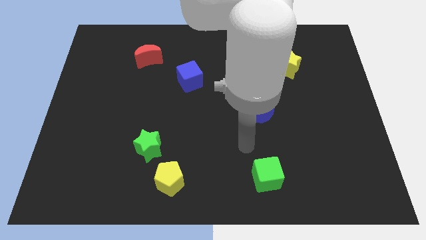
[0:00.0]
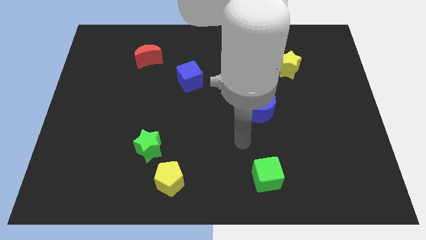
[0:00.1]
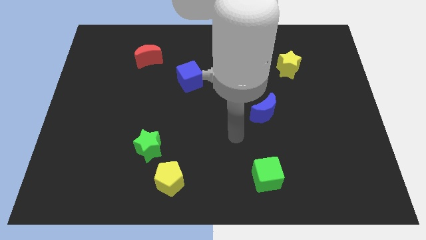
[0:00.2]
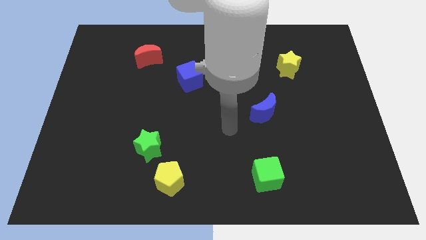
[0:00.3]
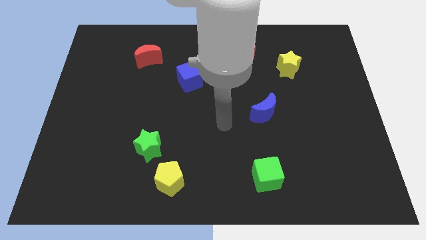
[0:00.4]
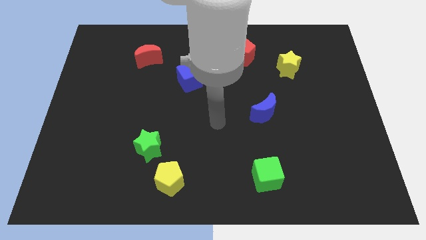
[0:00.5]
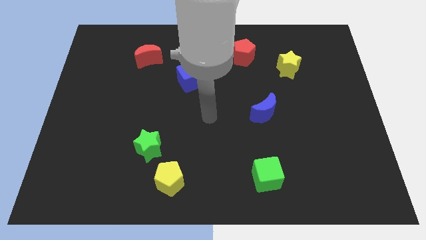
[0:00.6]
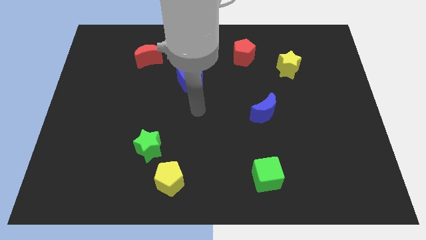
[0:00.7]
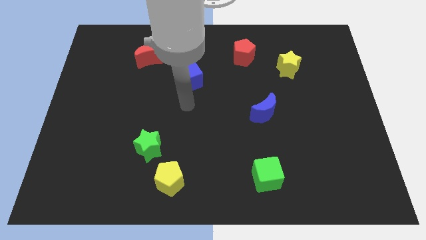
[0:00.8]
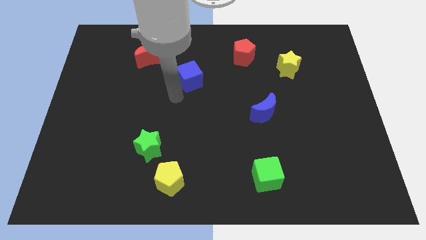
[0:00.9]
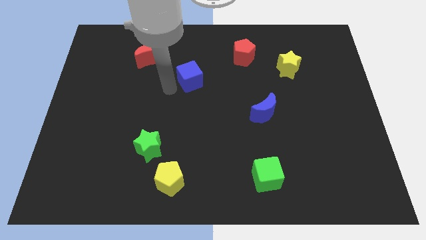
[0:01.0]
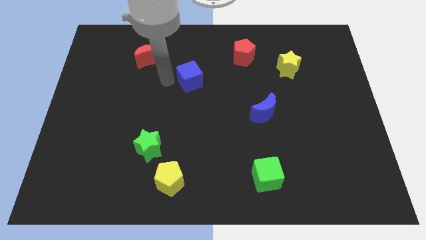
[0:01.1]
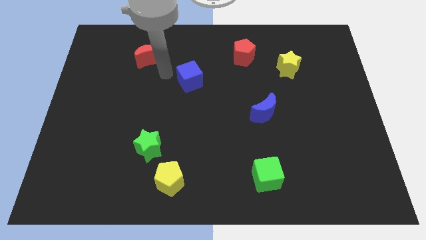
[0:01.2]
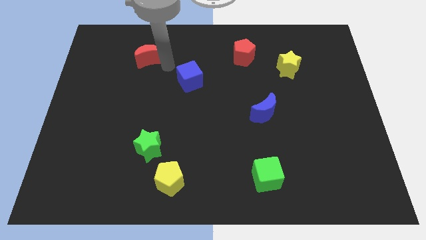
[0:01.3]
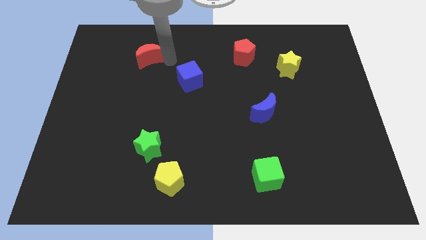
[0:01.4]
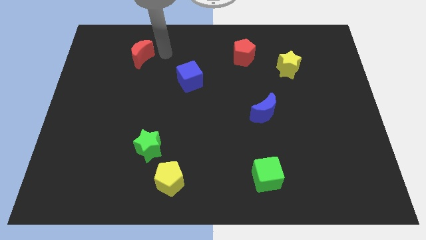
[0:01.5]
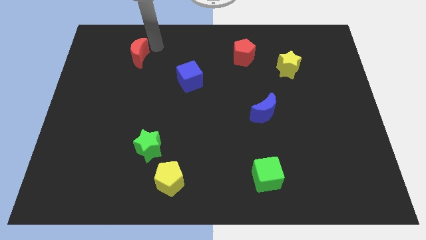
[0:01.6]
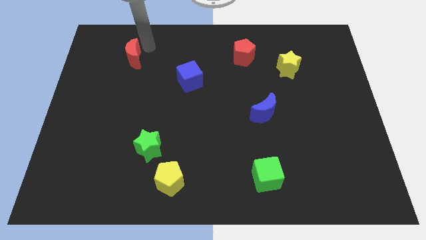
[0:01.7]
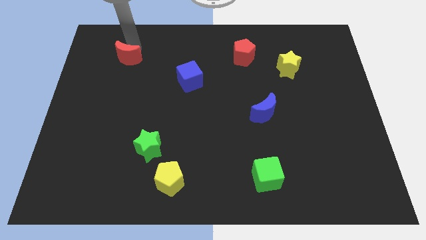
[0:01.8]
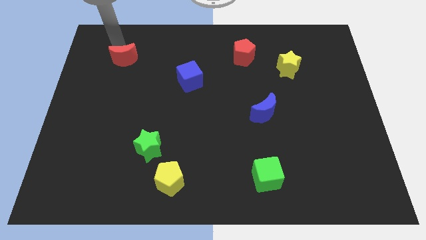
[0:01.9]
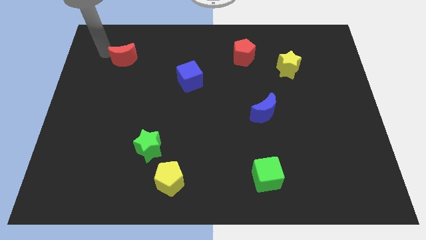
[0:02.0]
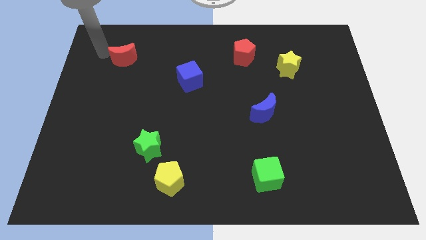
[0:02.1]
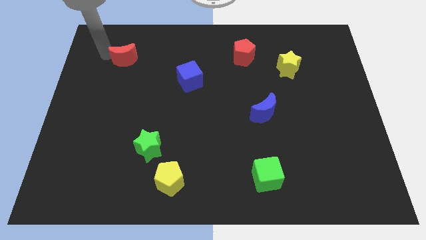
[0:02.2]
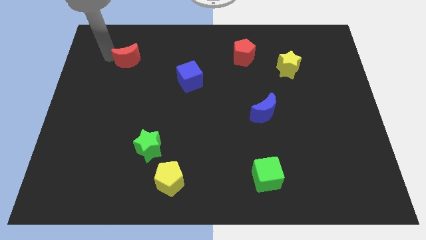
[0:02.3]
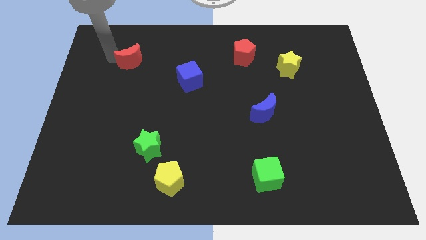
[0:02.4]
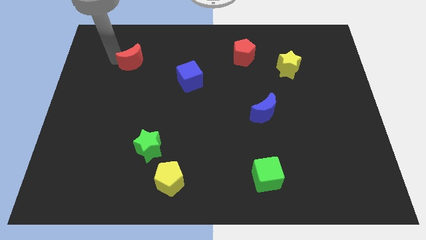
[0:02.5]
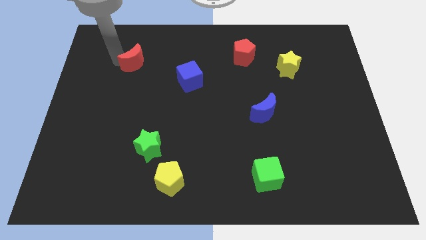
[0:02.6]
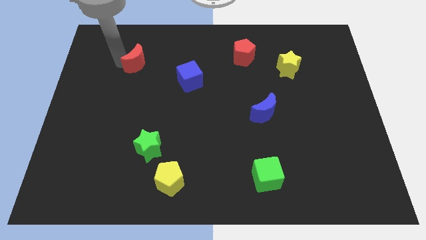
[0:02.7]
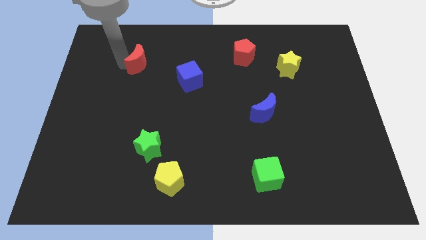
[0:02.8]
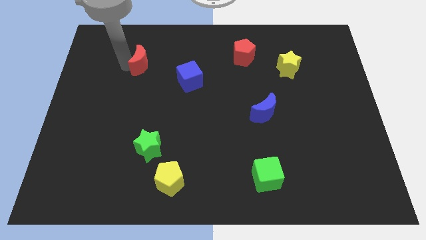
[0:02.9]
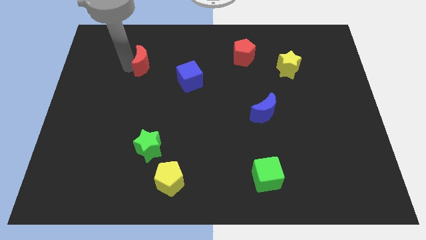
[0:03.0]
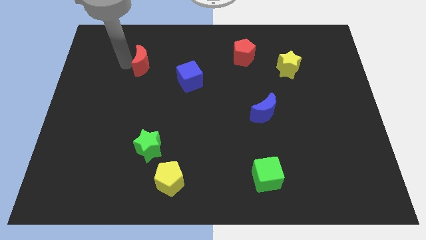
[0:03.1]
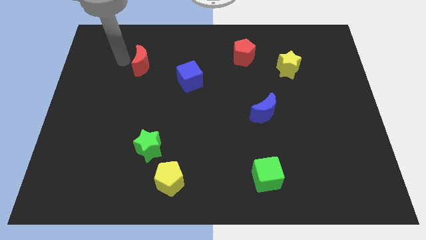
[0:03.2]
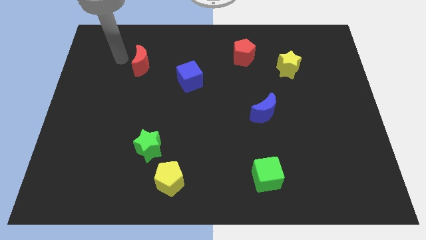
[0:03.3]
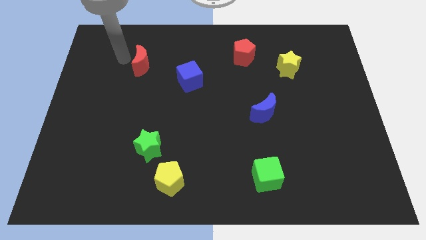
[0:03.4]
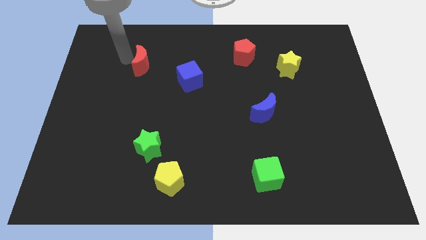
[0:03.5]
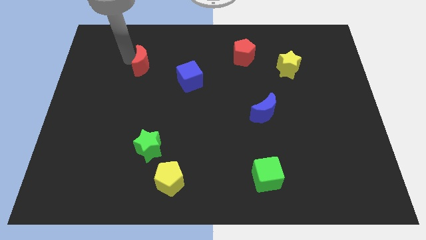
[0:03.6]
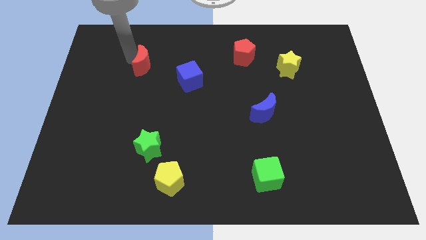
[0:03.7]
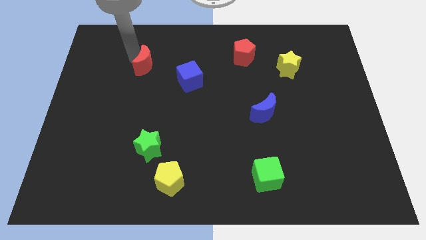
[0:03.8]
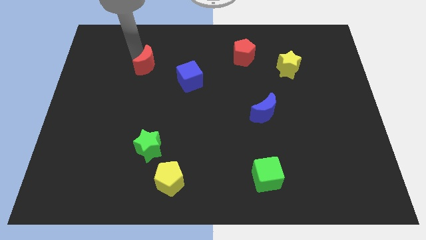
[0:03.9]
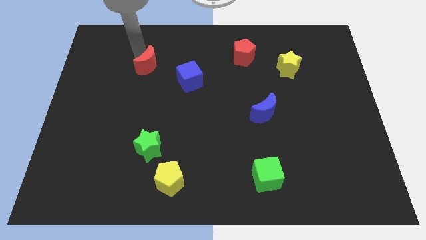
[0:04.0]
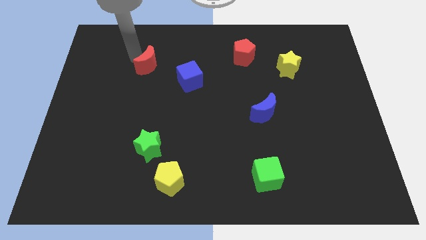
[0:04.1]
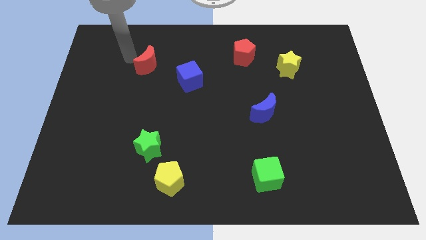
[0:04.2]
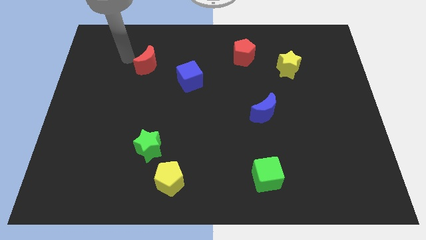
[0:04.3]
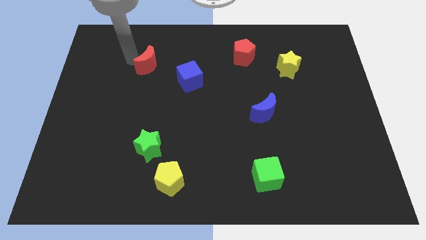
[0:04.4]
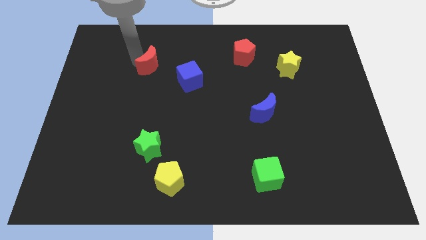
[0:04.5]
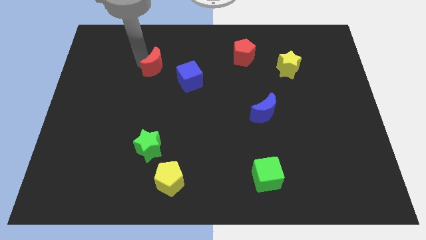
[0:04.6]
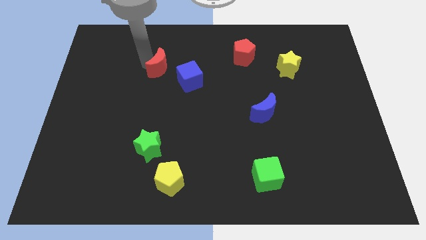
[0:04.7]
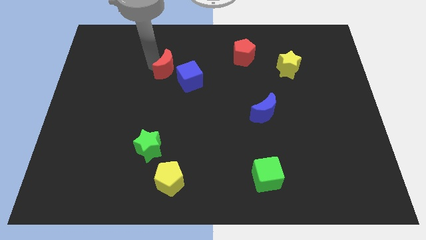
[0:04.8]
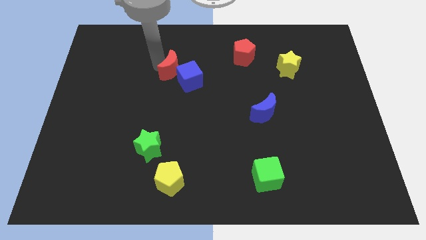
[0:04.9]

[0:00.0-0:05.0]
slide the red moon next to the blue cube

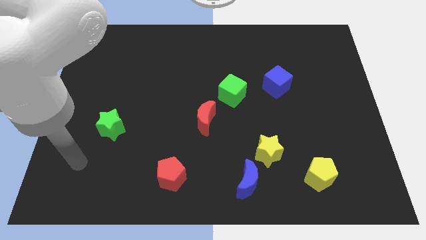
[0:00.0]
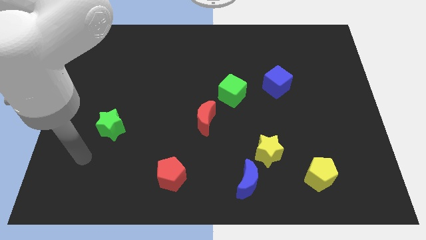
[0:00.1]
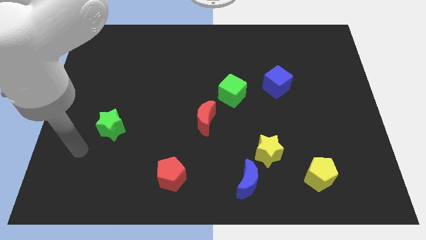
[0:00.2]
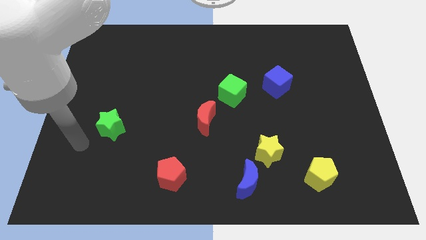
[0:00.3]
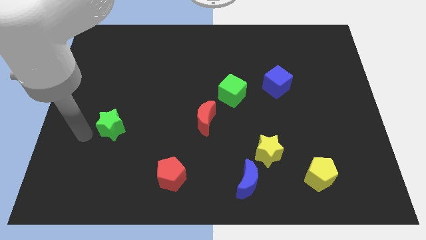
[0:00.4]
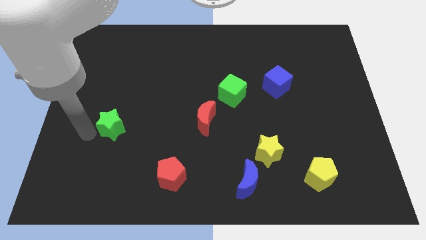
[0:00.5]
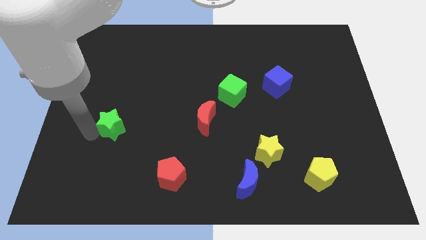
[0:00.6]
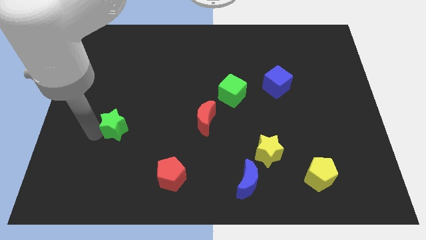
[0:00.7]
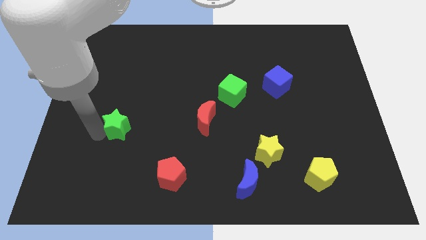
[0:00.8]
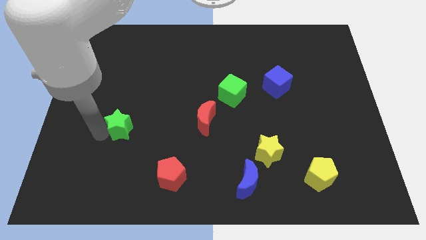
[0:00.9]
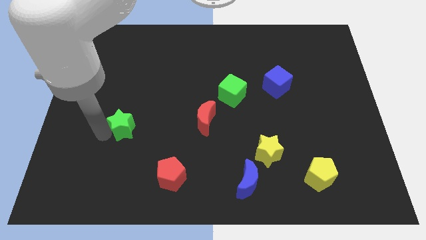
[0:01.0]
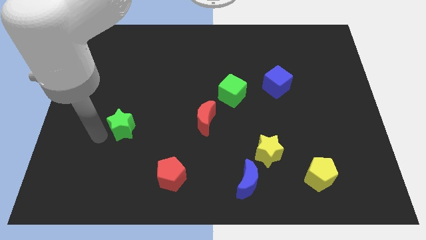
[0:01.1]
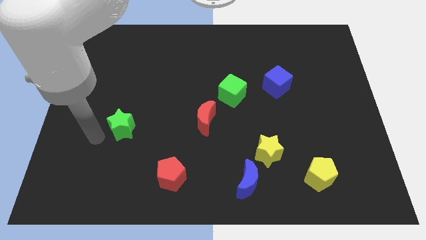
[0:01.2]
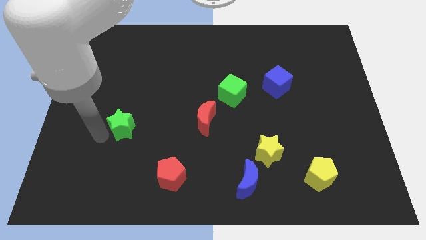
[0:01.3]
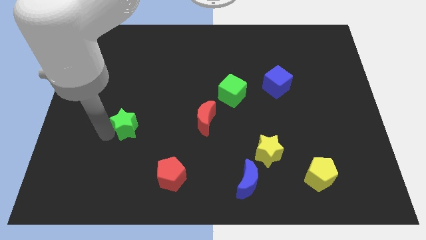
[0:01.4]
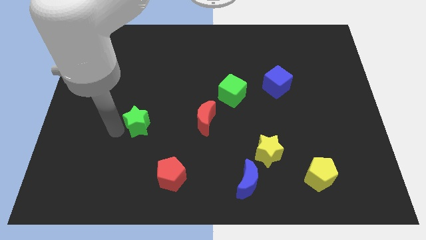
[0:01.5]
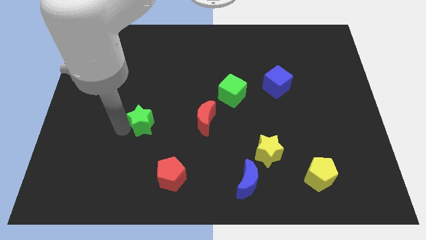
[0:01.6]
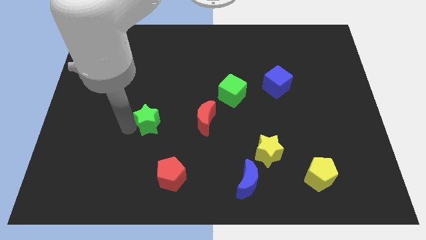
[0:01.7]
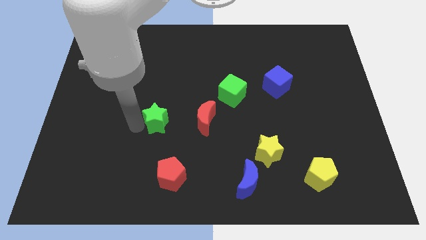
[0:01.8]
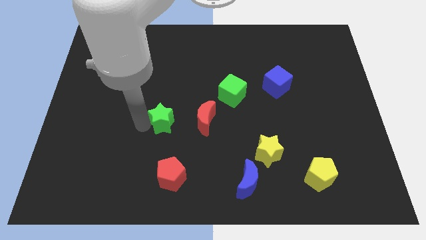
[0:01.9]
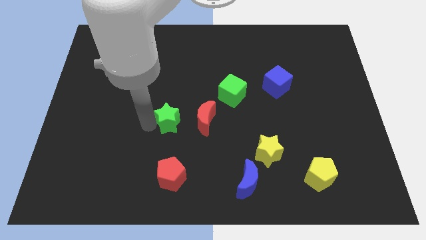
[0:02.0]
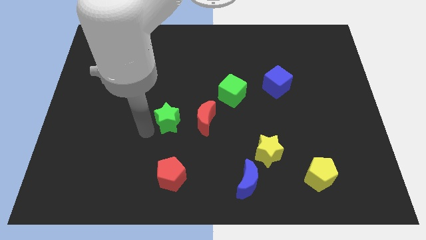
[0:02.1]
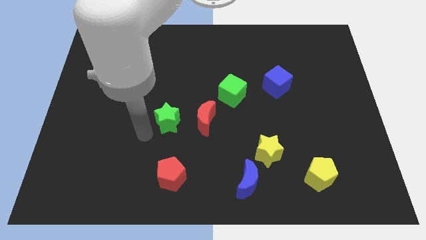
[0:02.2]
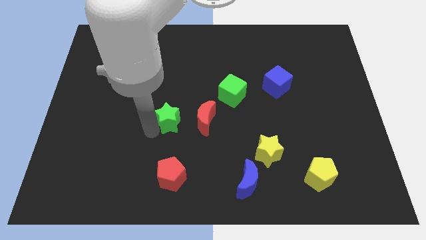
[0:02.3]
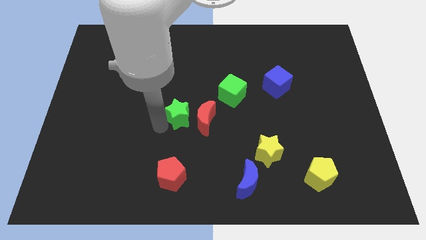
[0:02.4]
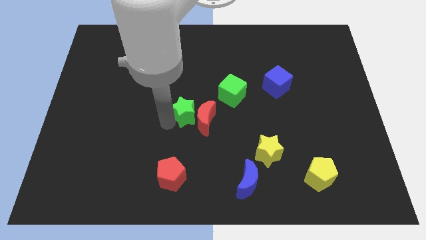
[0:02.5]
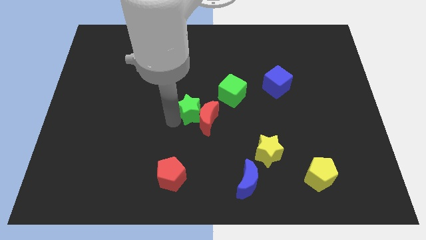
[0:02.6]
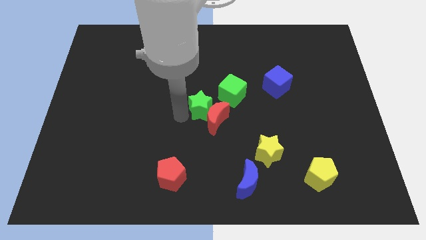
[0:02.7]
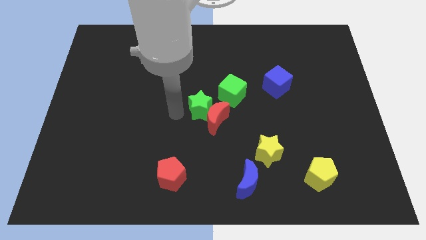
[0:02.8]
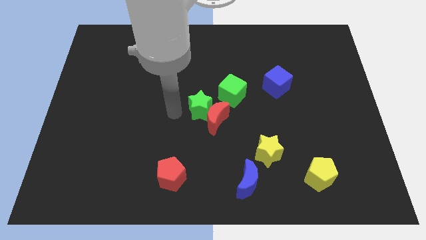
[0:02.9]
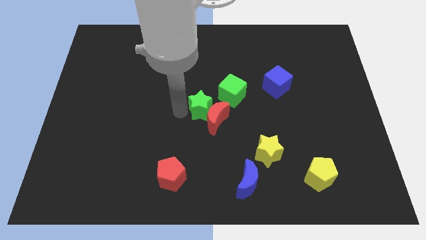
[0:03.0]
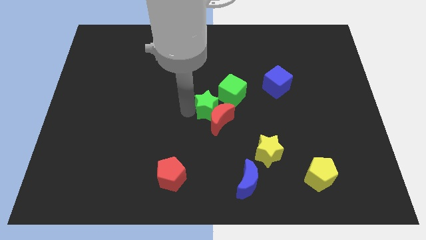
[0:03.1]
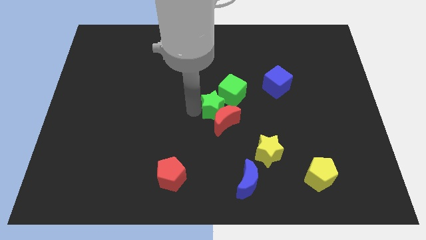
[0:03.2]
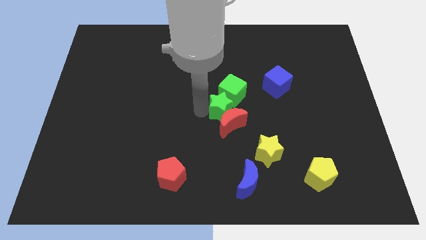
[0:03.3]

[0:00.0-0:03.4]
slide the green star next to the green cube
